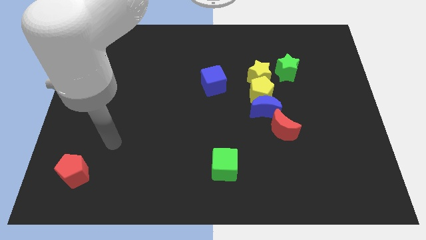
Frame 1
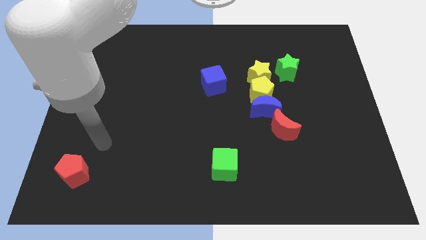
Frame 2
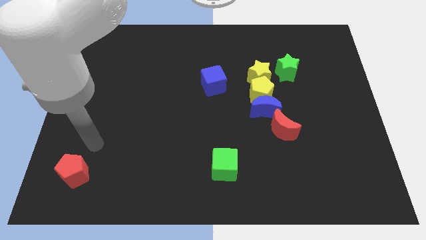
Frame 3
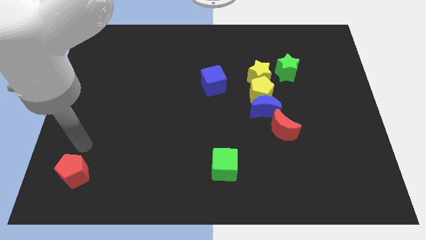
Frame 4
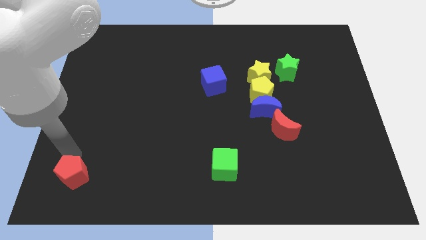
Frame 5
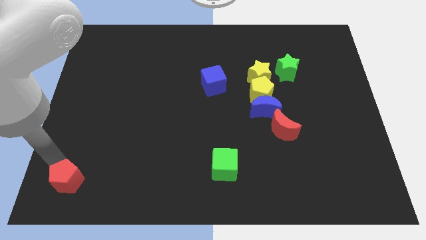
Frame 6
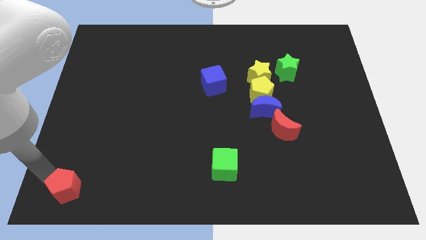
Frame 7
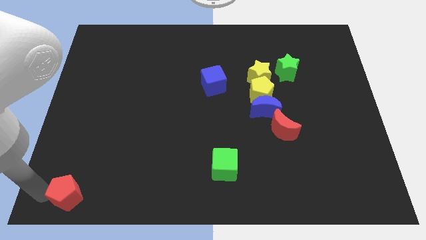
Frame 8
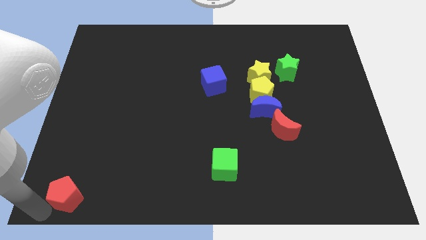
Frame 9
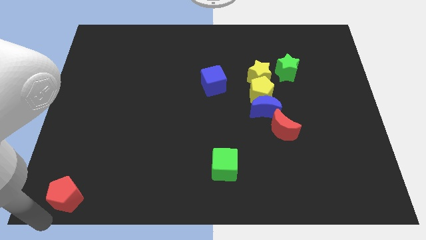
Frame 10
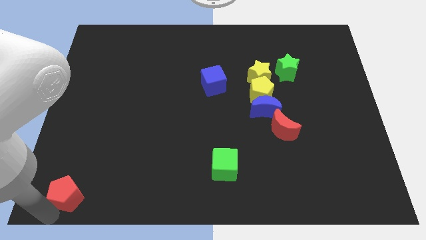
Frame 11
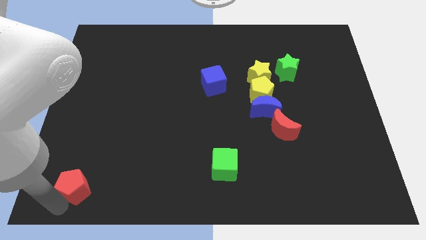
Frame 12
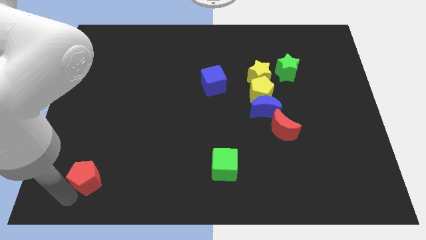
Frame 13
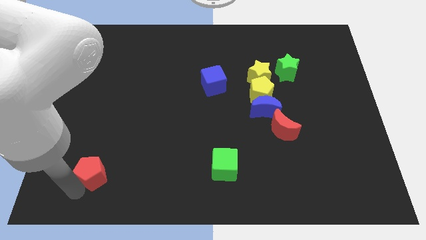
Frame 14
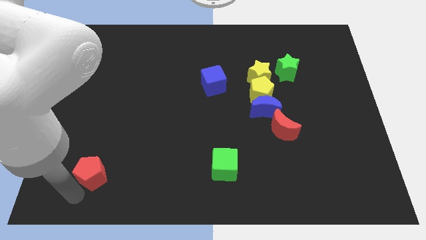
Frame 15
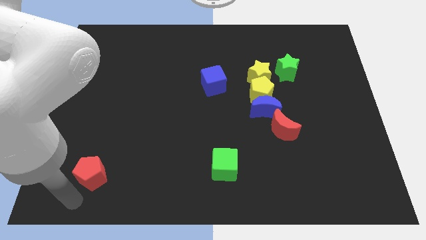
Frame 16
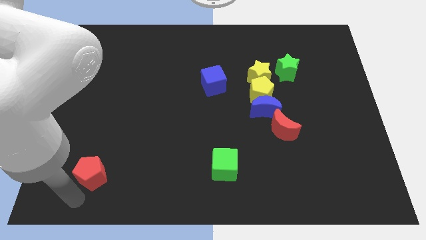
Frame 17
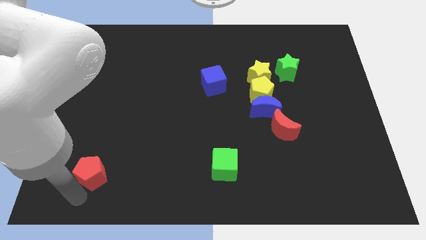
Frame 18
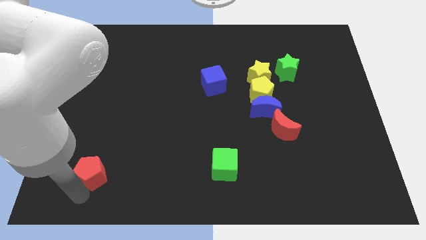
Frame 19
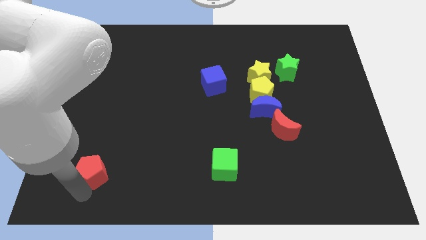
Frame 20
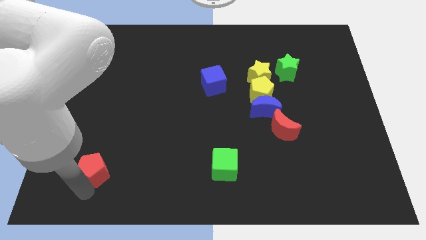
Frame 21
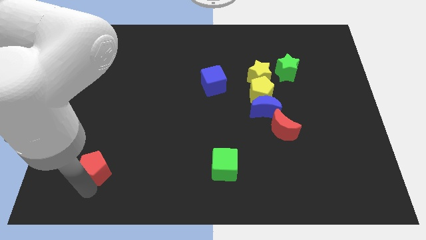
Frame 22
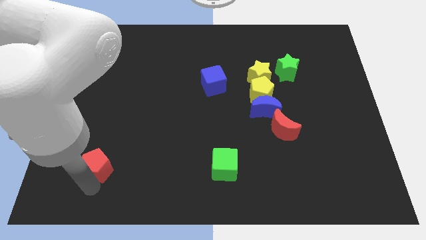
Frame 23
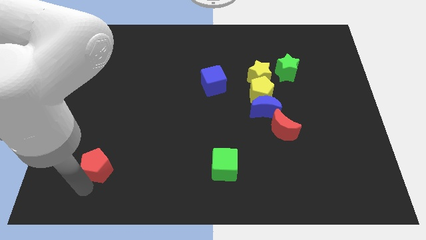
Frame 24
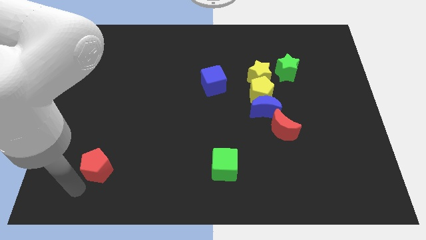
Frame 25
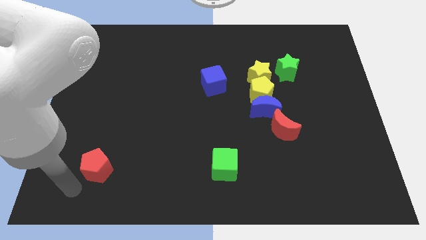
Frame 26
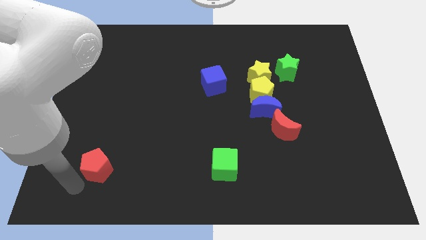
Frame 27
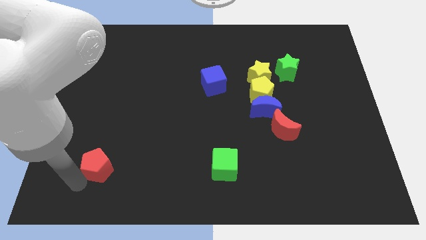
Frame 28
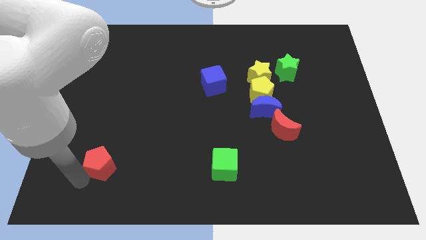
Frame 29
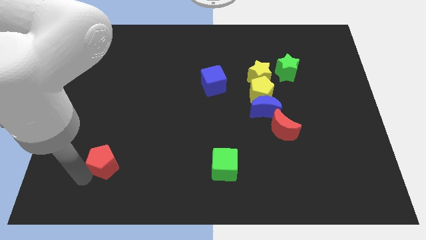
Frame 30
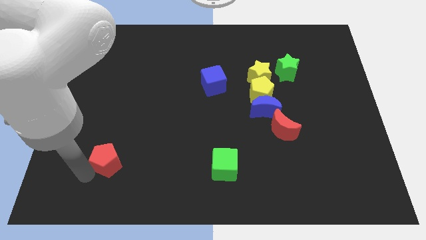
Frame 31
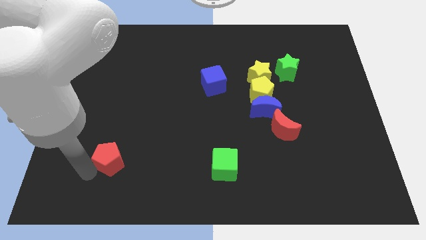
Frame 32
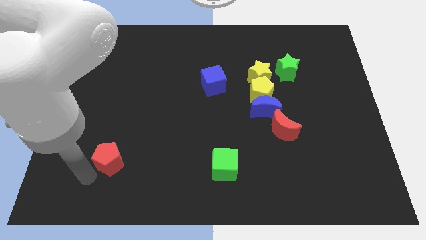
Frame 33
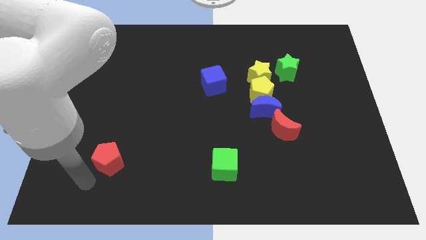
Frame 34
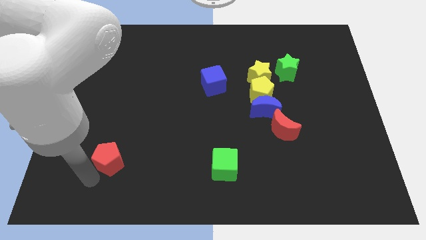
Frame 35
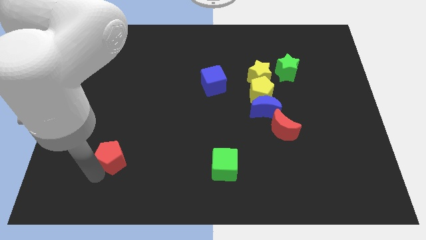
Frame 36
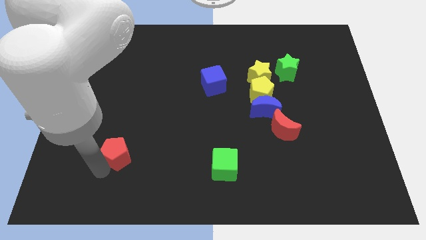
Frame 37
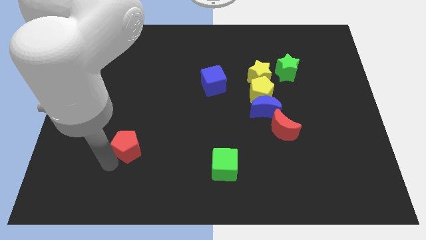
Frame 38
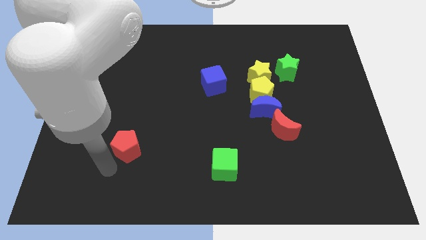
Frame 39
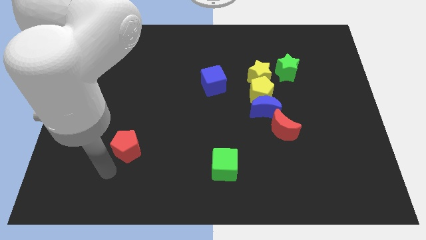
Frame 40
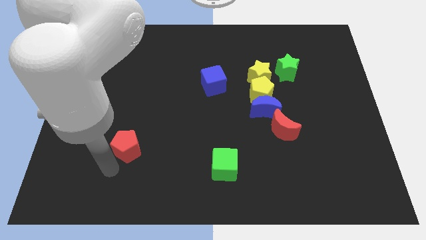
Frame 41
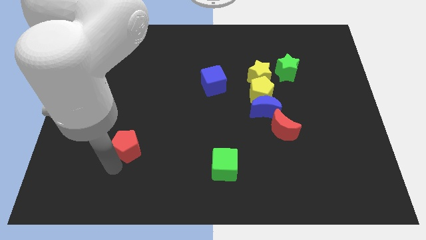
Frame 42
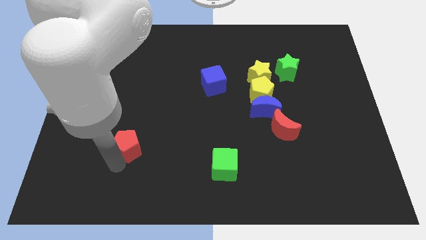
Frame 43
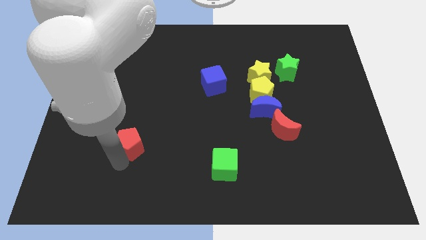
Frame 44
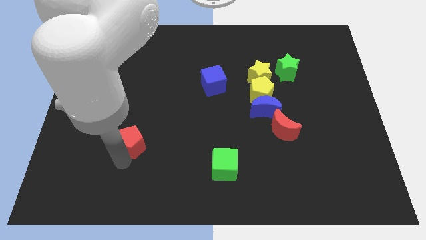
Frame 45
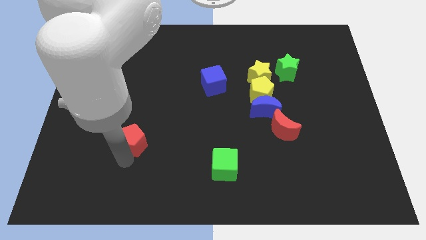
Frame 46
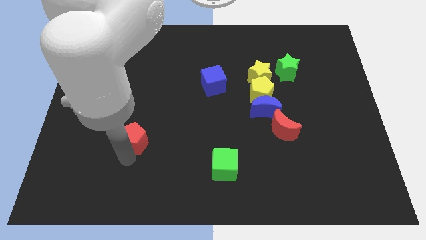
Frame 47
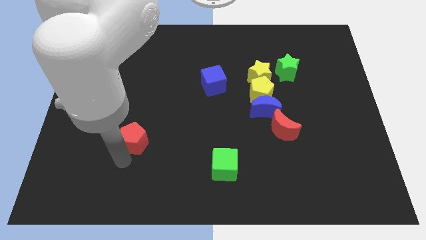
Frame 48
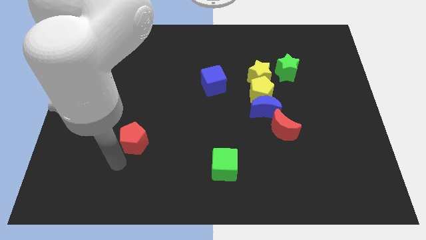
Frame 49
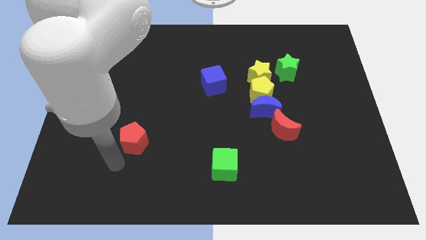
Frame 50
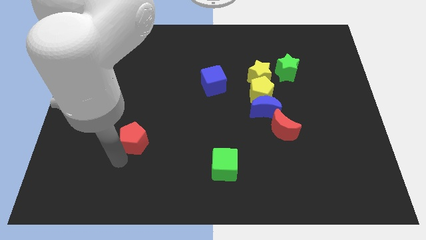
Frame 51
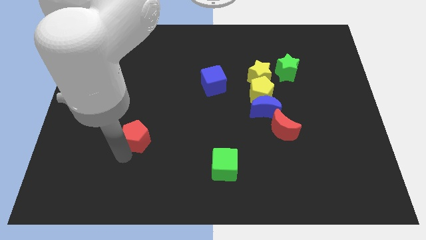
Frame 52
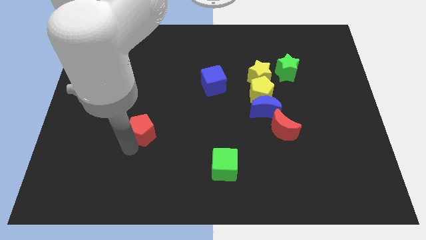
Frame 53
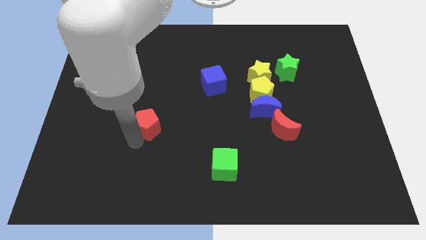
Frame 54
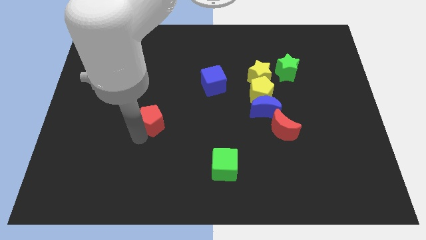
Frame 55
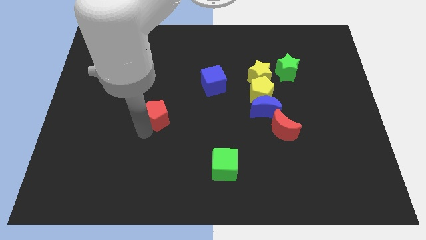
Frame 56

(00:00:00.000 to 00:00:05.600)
move the red pentagon diagonally up and right

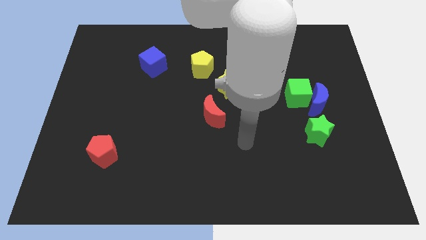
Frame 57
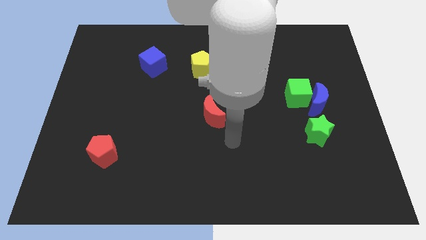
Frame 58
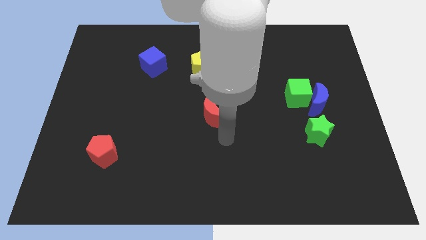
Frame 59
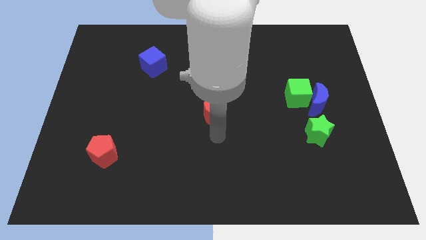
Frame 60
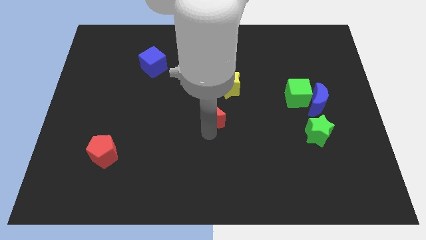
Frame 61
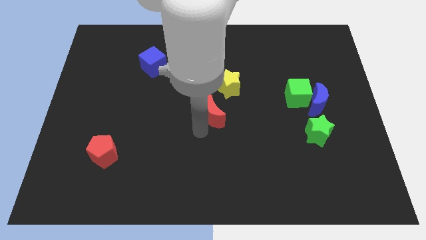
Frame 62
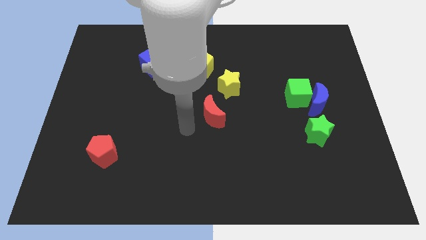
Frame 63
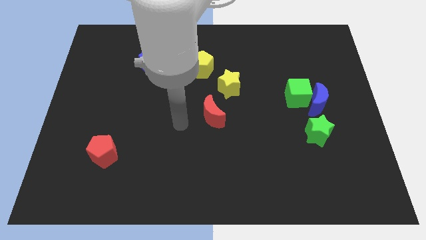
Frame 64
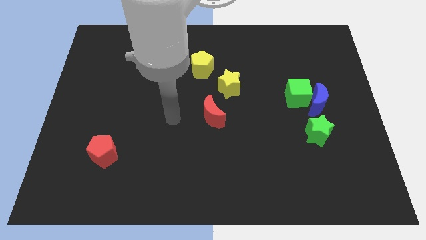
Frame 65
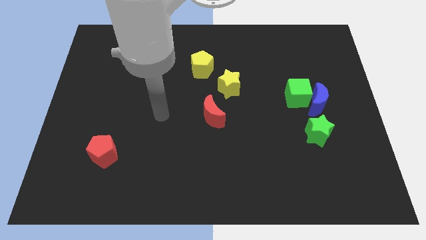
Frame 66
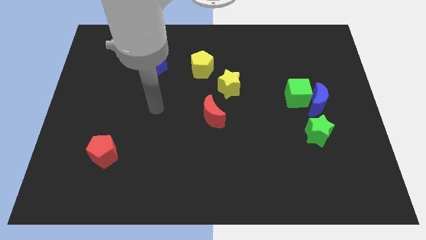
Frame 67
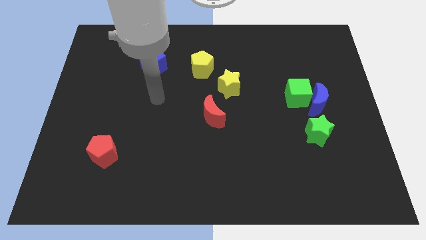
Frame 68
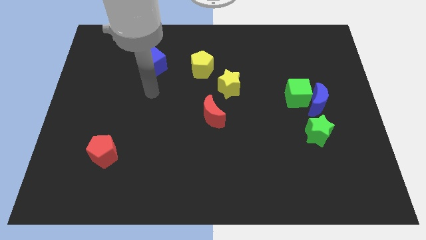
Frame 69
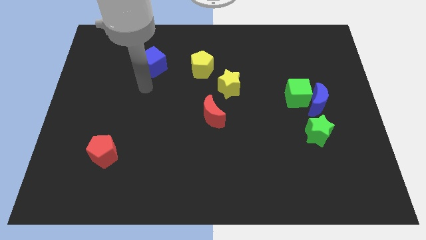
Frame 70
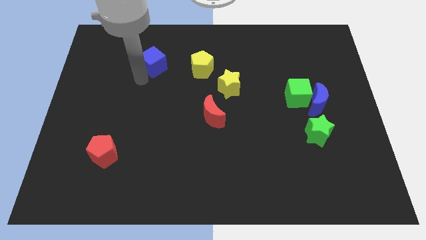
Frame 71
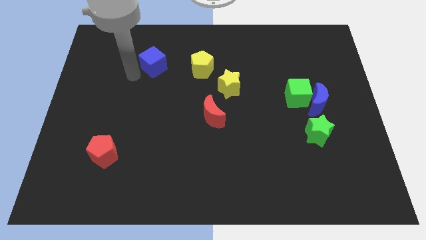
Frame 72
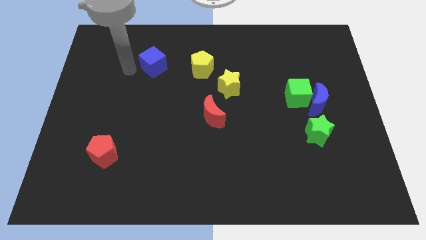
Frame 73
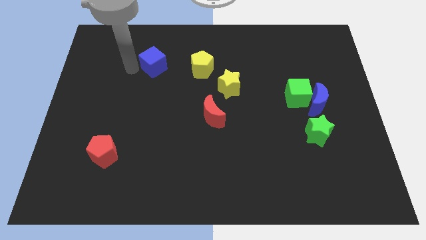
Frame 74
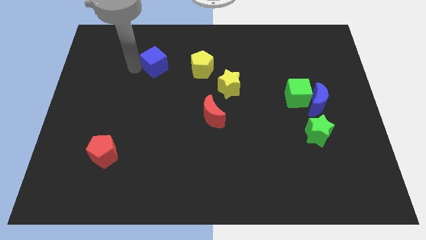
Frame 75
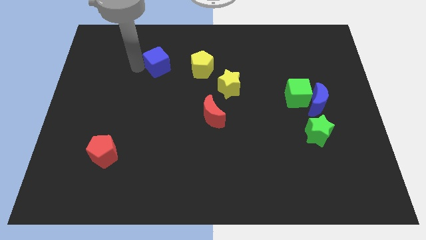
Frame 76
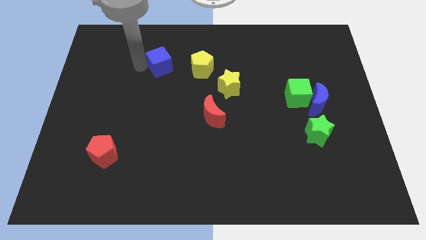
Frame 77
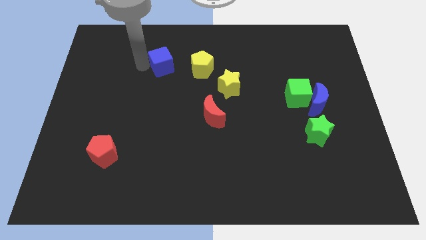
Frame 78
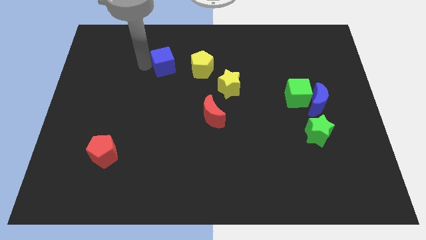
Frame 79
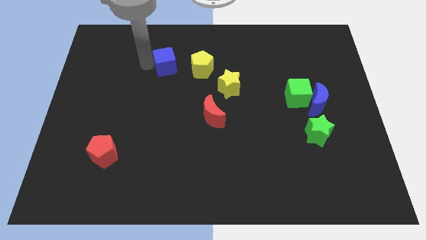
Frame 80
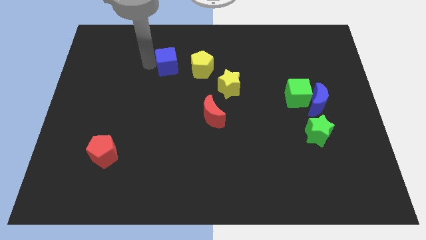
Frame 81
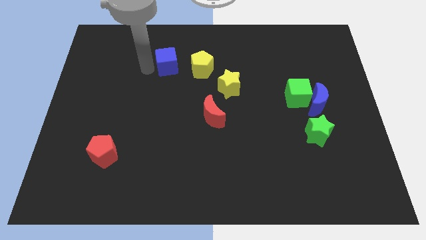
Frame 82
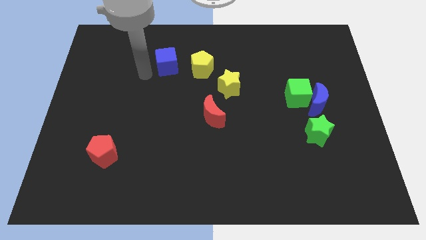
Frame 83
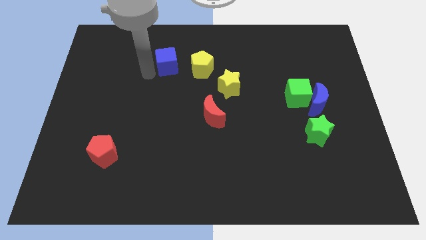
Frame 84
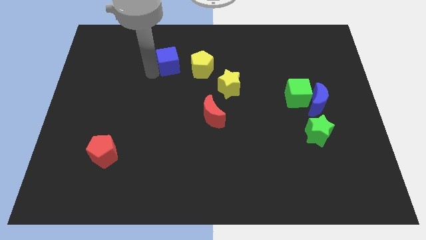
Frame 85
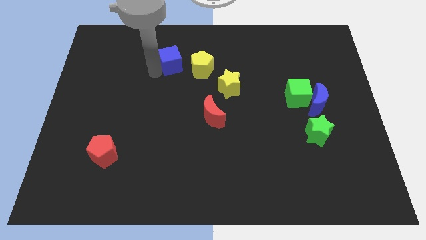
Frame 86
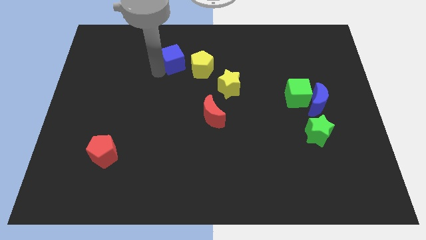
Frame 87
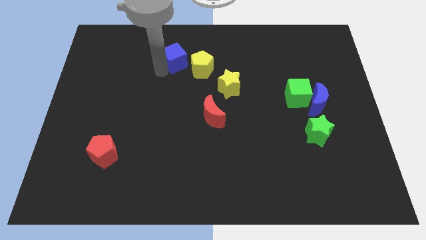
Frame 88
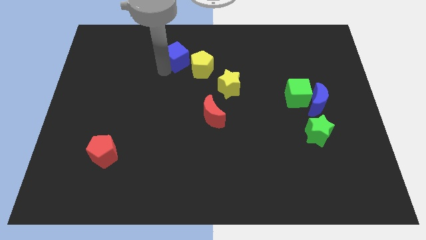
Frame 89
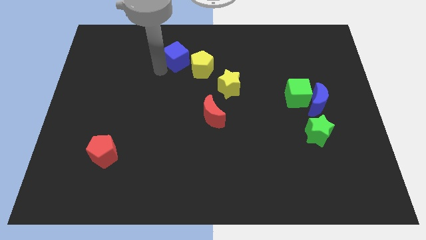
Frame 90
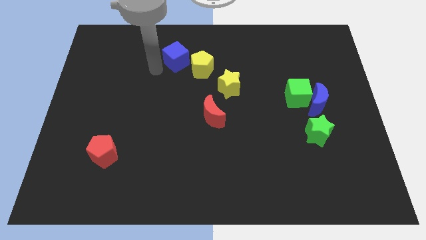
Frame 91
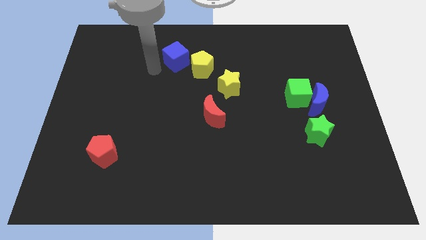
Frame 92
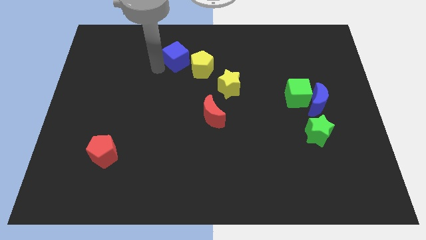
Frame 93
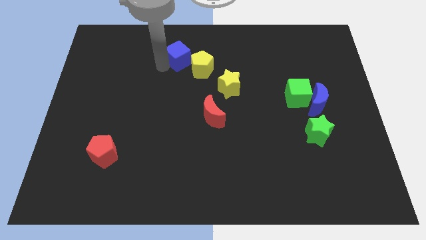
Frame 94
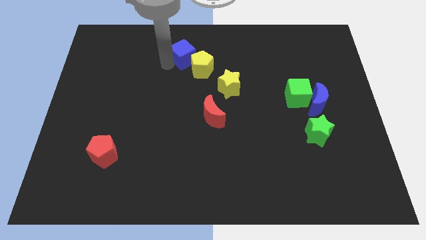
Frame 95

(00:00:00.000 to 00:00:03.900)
push the blue cube a bit right
